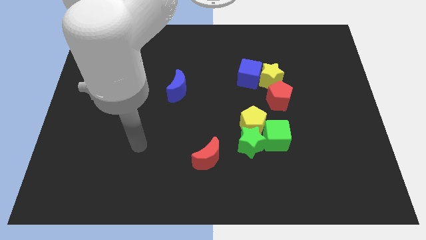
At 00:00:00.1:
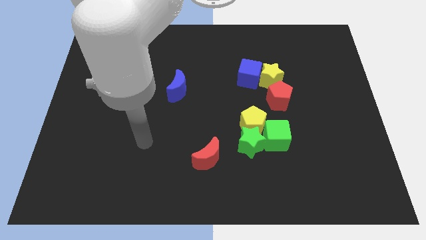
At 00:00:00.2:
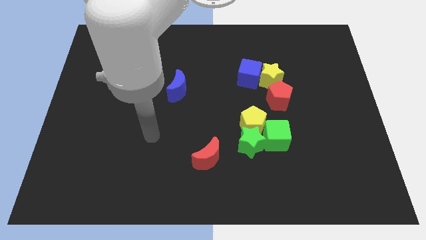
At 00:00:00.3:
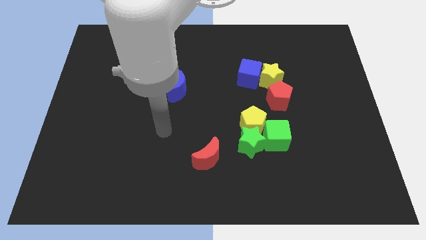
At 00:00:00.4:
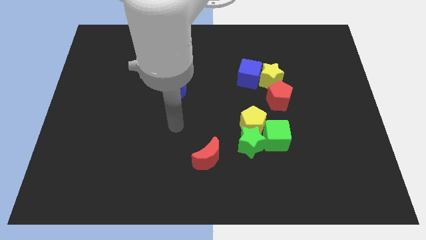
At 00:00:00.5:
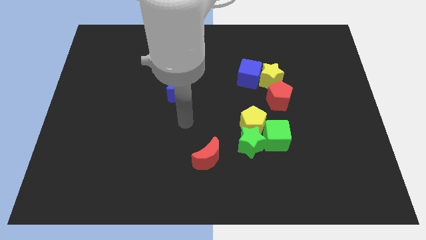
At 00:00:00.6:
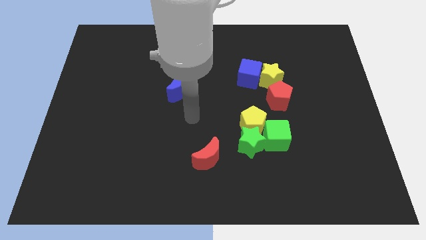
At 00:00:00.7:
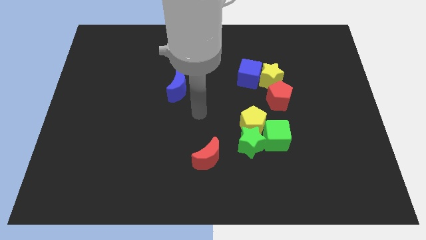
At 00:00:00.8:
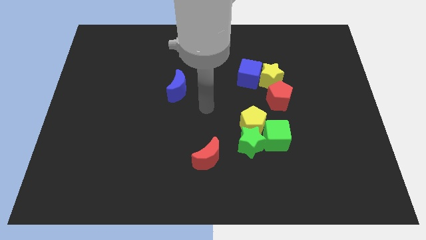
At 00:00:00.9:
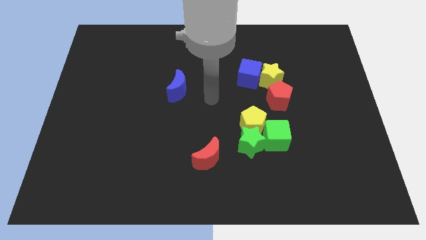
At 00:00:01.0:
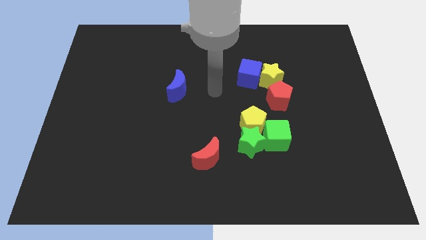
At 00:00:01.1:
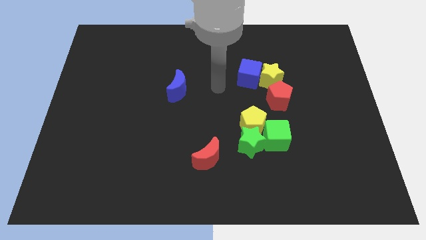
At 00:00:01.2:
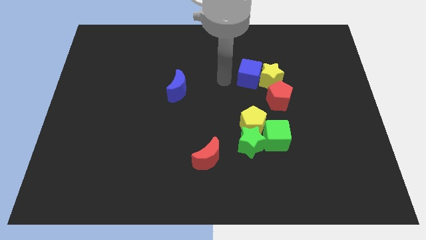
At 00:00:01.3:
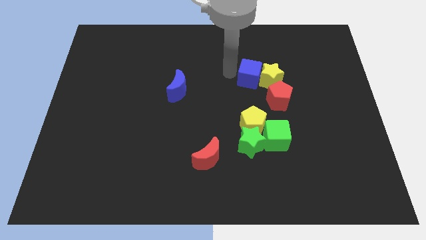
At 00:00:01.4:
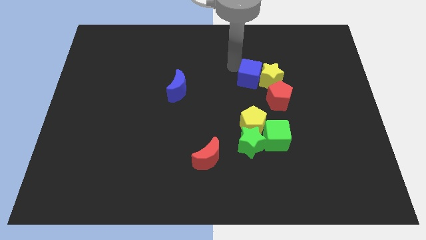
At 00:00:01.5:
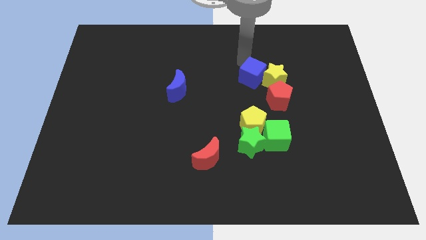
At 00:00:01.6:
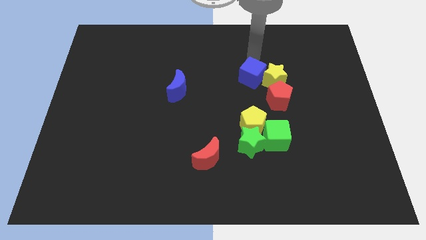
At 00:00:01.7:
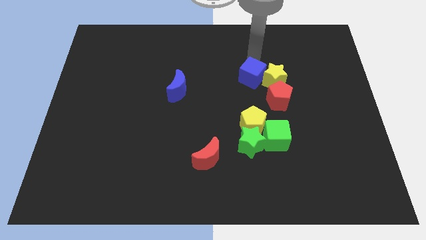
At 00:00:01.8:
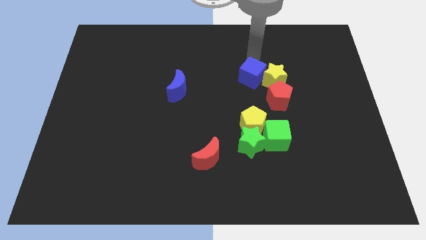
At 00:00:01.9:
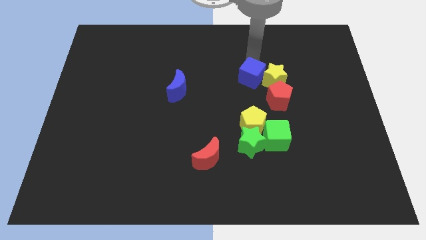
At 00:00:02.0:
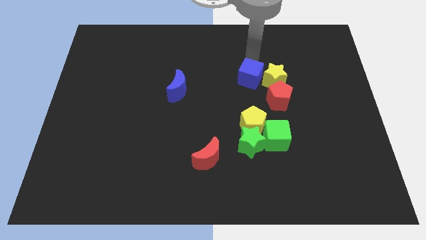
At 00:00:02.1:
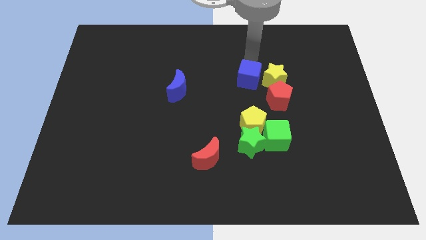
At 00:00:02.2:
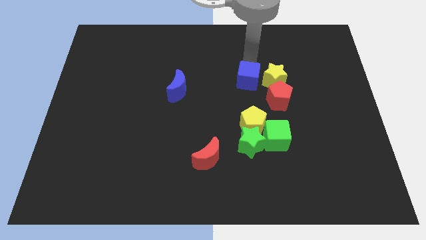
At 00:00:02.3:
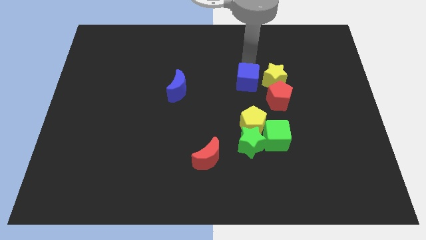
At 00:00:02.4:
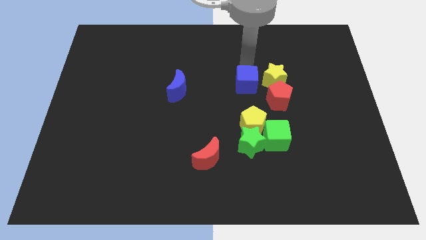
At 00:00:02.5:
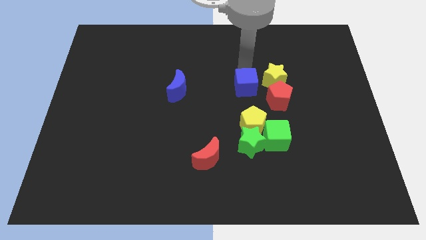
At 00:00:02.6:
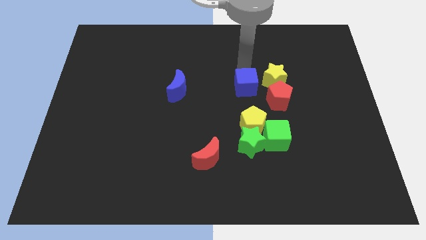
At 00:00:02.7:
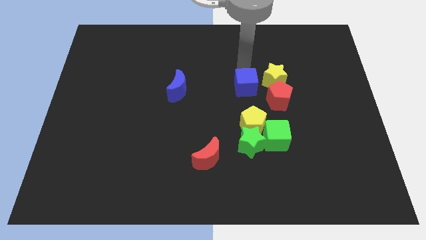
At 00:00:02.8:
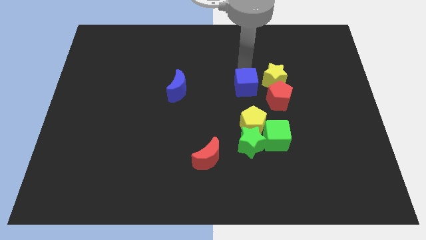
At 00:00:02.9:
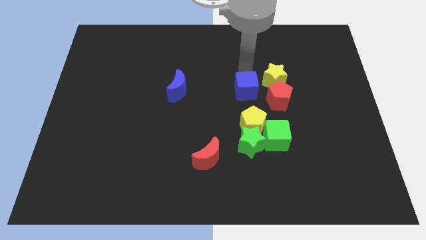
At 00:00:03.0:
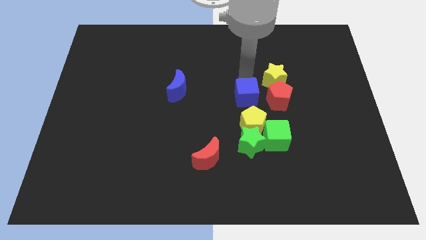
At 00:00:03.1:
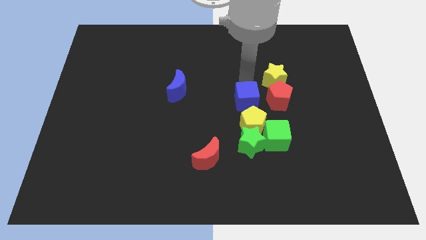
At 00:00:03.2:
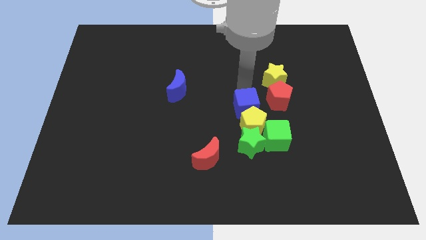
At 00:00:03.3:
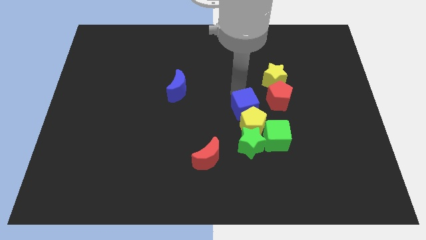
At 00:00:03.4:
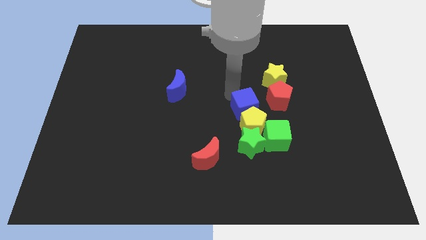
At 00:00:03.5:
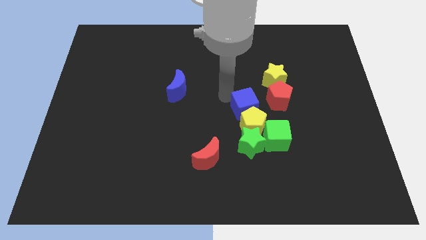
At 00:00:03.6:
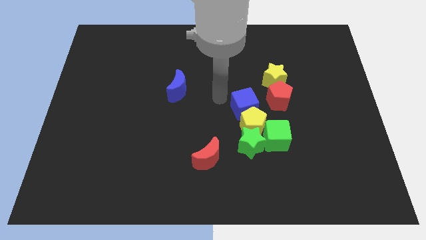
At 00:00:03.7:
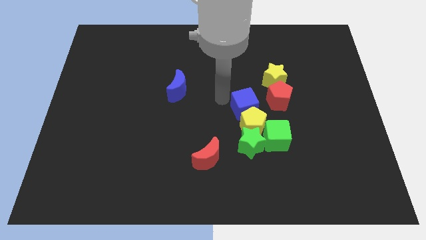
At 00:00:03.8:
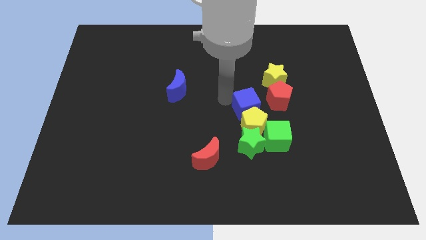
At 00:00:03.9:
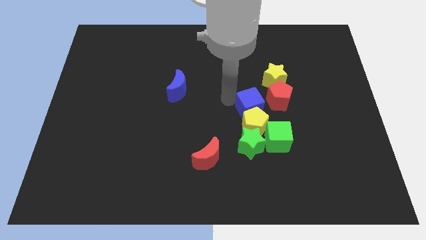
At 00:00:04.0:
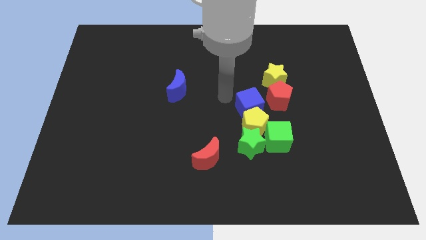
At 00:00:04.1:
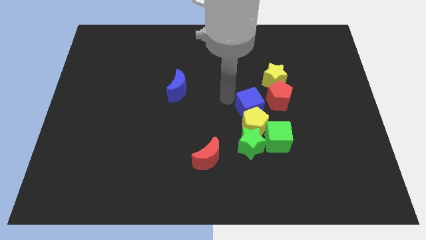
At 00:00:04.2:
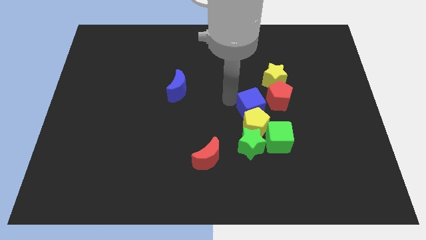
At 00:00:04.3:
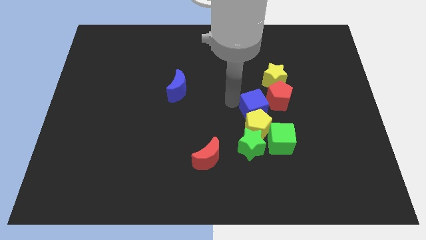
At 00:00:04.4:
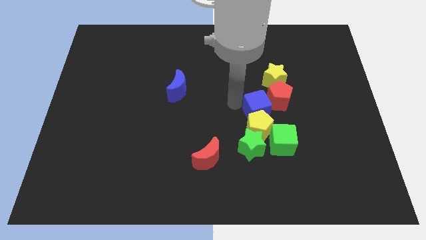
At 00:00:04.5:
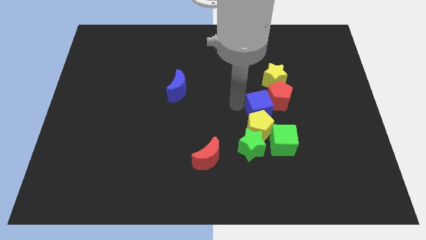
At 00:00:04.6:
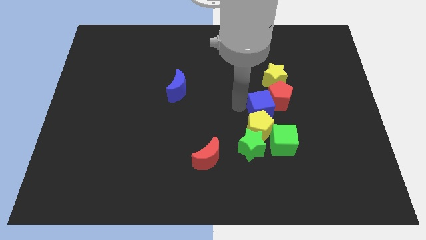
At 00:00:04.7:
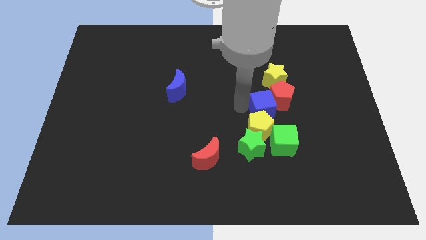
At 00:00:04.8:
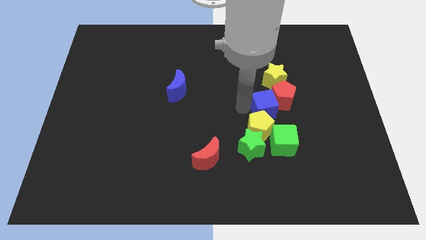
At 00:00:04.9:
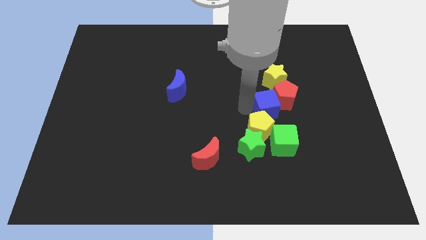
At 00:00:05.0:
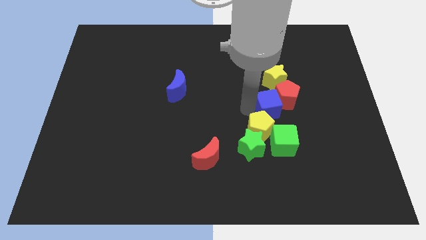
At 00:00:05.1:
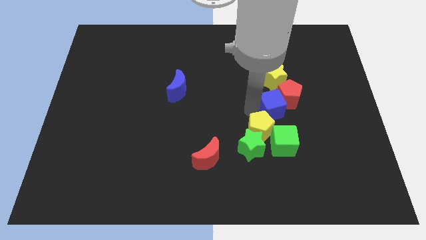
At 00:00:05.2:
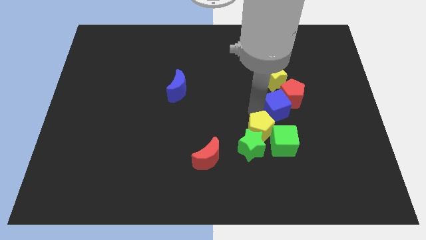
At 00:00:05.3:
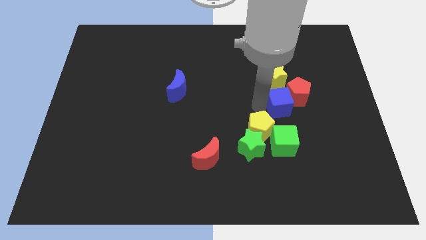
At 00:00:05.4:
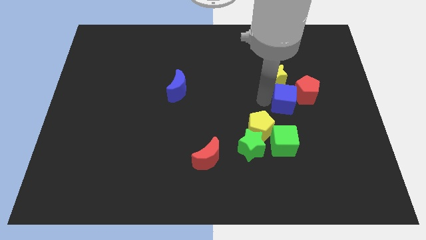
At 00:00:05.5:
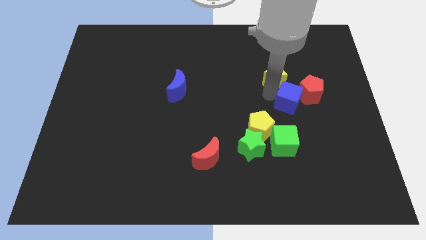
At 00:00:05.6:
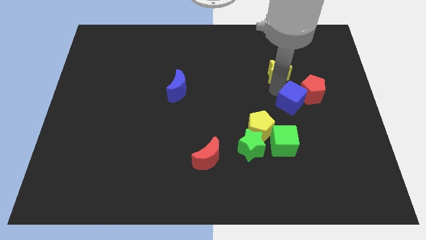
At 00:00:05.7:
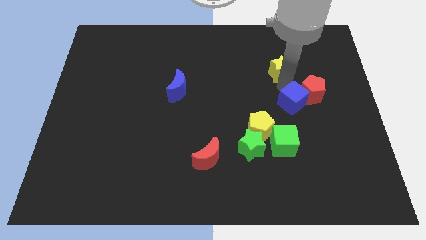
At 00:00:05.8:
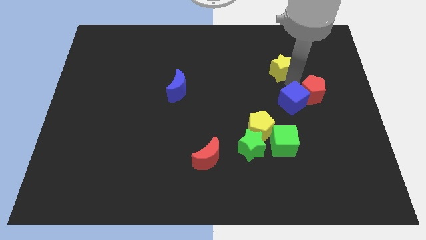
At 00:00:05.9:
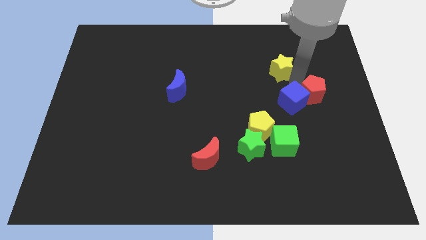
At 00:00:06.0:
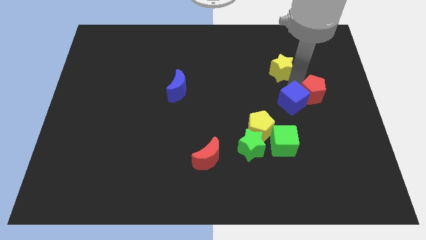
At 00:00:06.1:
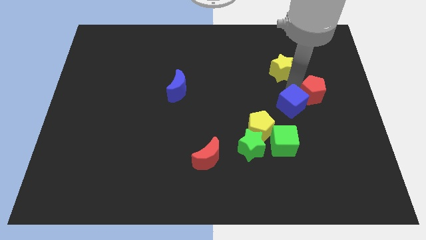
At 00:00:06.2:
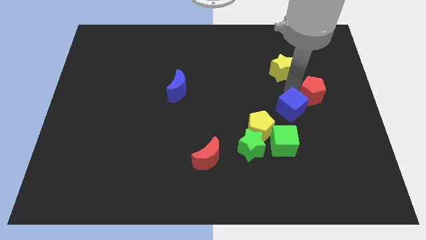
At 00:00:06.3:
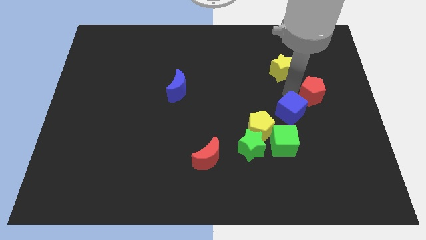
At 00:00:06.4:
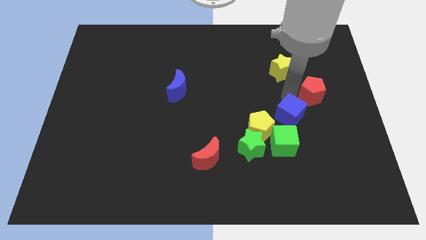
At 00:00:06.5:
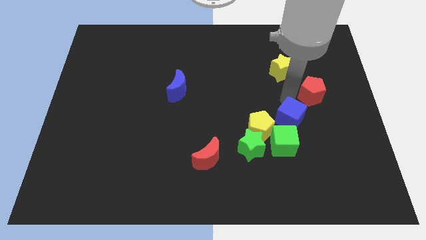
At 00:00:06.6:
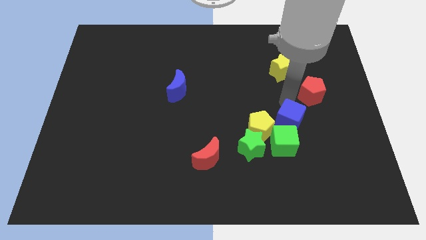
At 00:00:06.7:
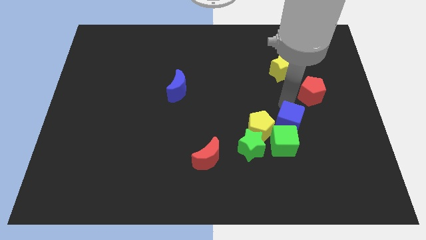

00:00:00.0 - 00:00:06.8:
move the blue cube towards the green cube
